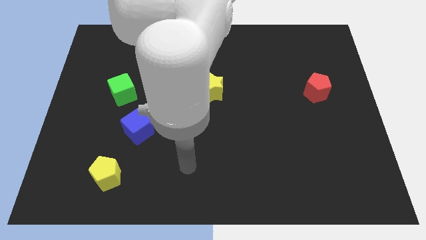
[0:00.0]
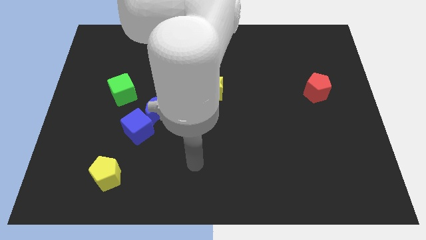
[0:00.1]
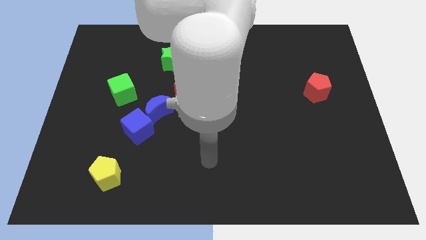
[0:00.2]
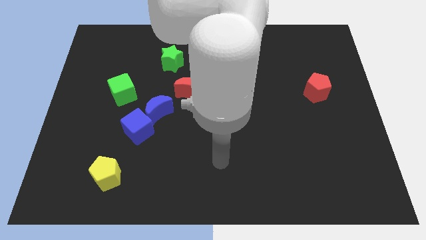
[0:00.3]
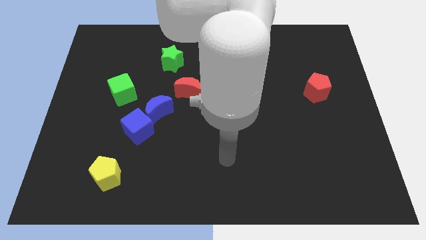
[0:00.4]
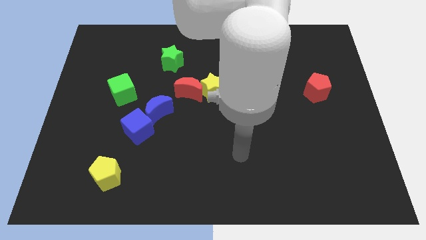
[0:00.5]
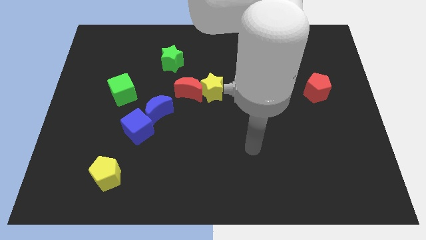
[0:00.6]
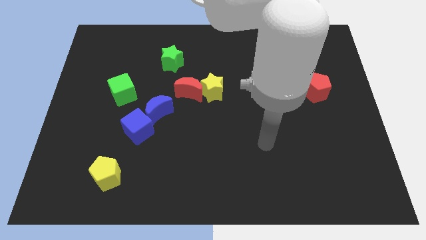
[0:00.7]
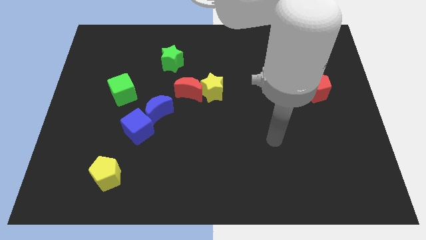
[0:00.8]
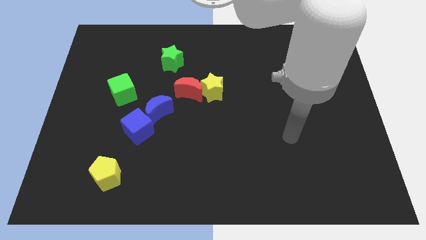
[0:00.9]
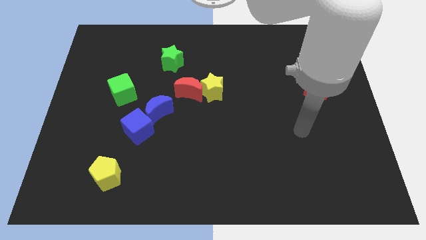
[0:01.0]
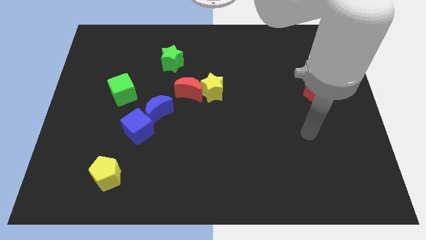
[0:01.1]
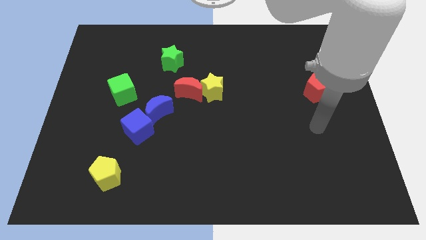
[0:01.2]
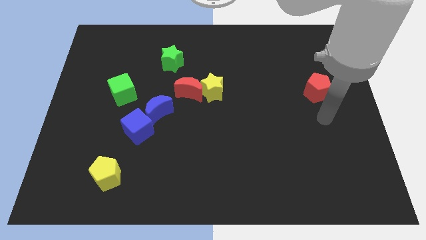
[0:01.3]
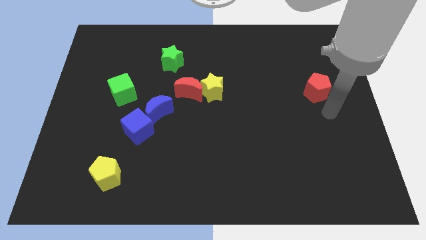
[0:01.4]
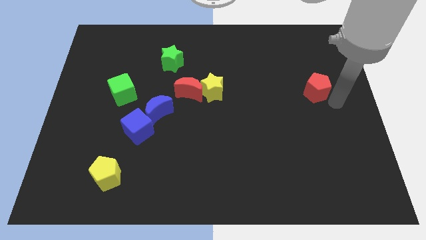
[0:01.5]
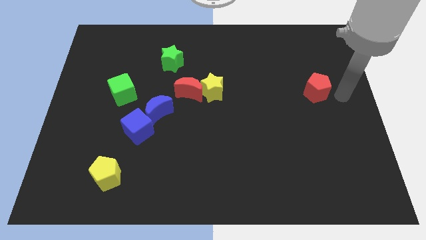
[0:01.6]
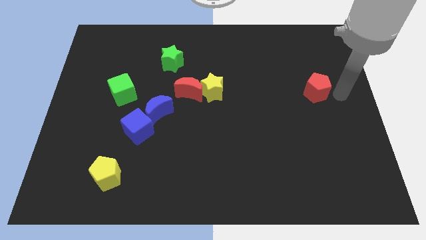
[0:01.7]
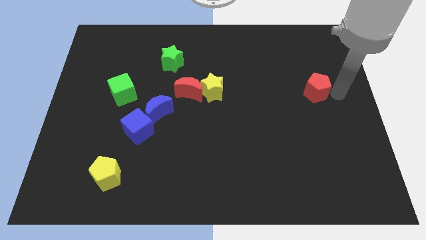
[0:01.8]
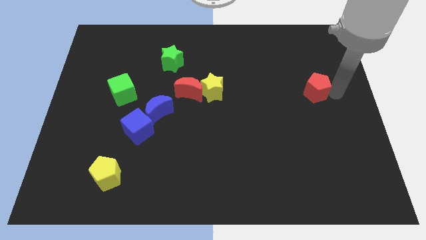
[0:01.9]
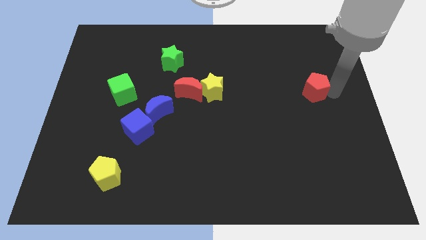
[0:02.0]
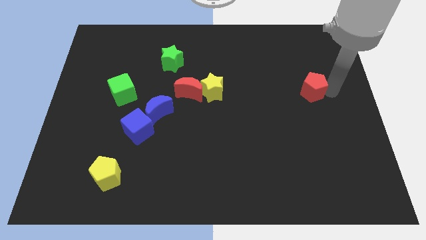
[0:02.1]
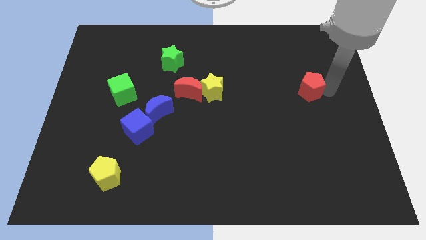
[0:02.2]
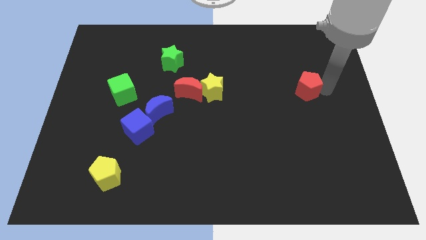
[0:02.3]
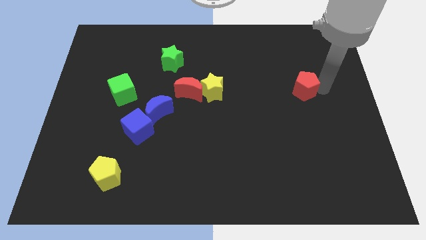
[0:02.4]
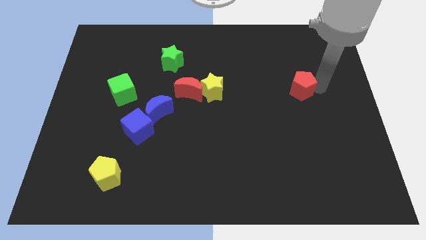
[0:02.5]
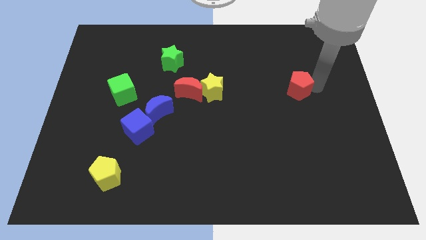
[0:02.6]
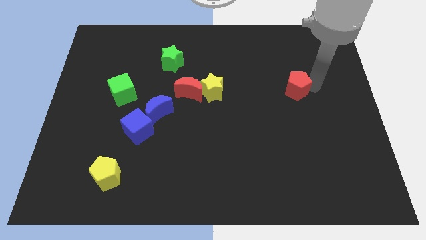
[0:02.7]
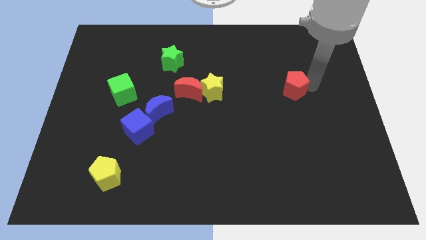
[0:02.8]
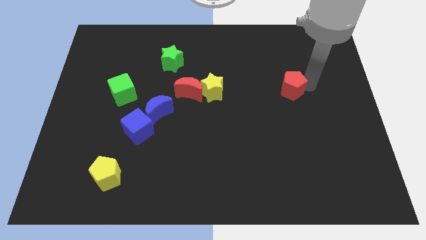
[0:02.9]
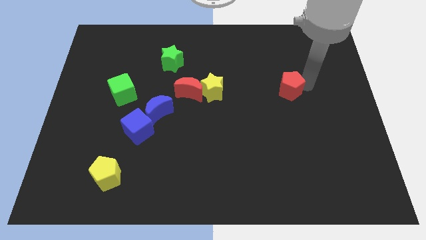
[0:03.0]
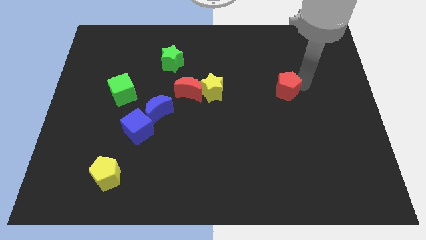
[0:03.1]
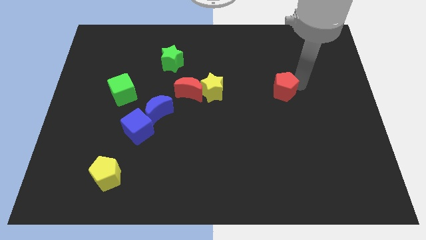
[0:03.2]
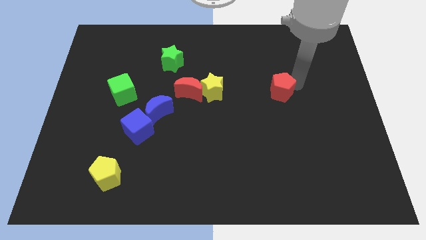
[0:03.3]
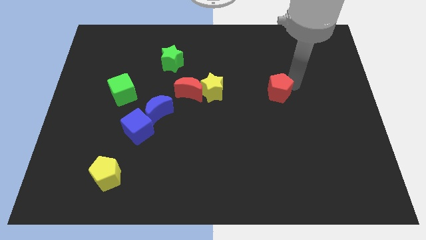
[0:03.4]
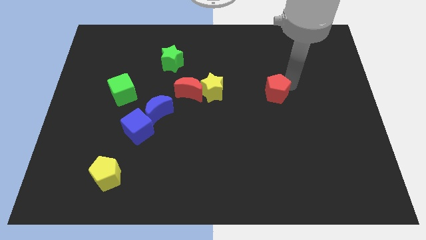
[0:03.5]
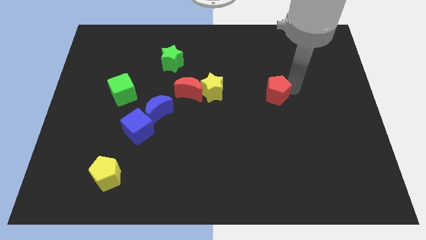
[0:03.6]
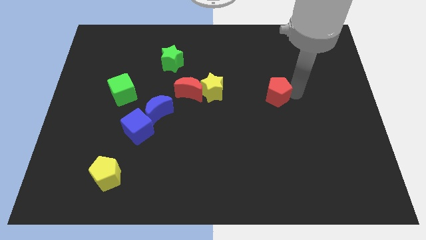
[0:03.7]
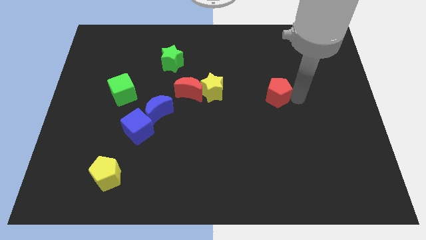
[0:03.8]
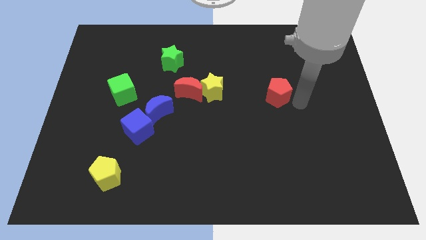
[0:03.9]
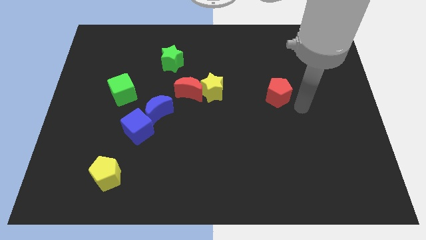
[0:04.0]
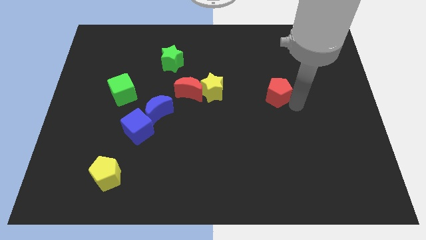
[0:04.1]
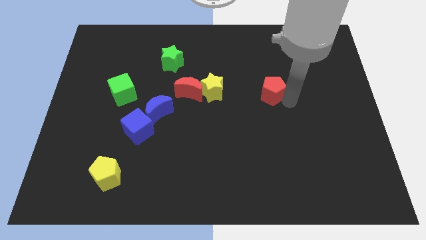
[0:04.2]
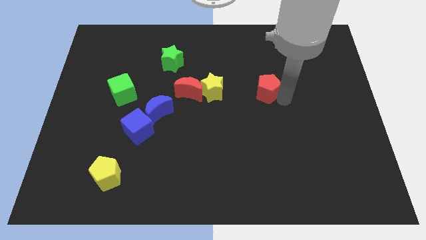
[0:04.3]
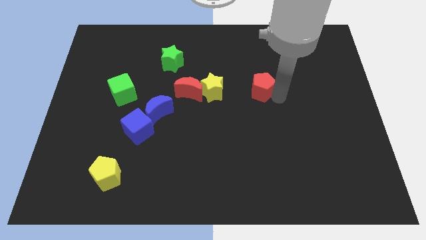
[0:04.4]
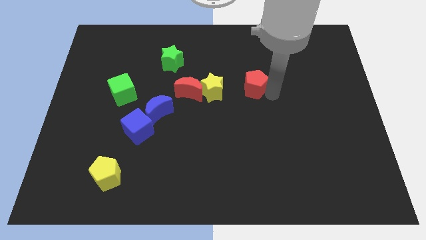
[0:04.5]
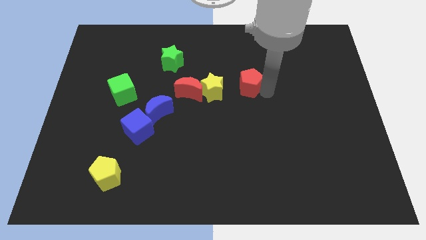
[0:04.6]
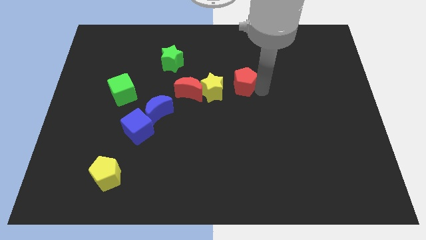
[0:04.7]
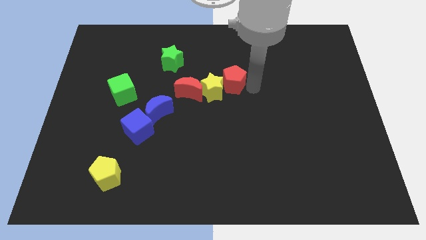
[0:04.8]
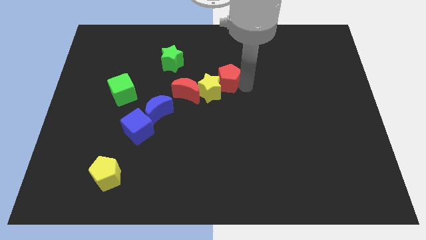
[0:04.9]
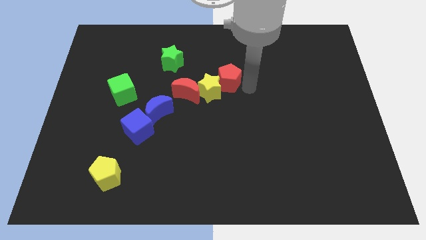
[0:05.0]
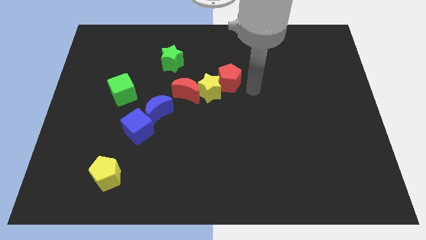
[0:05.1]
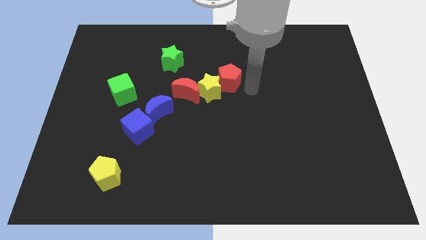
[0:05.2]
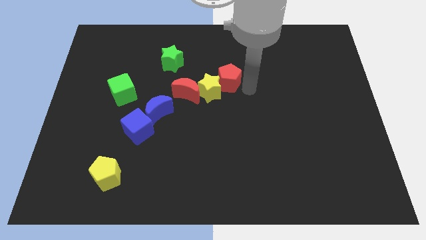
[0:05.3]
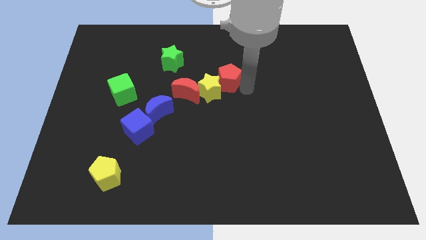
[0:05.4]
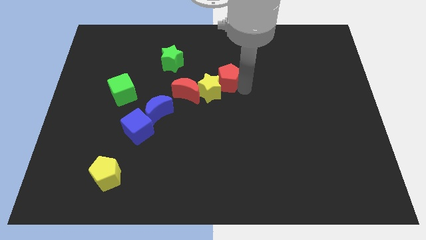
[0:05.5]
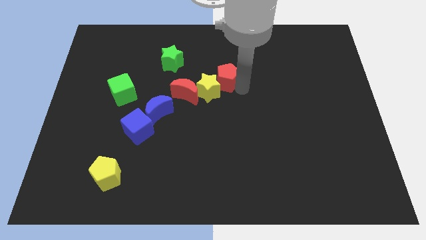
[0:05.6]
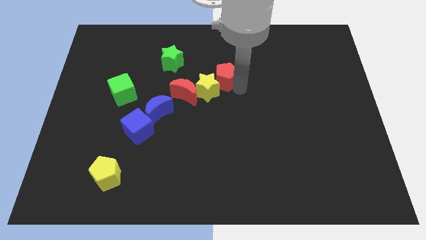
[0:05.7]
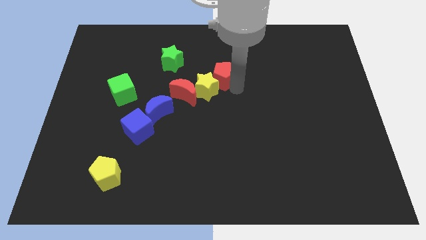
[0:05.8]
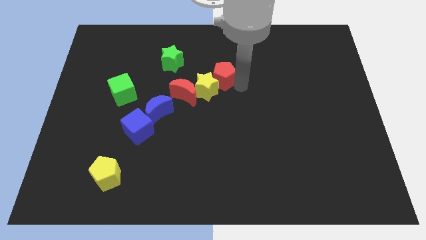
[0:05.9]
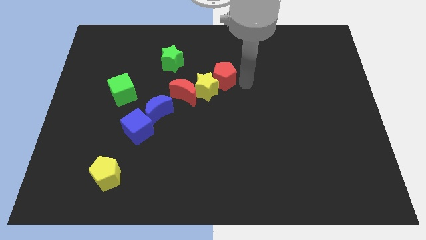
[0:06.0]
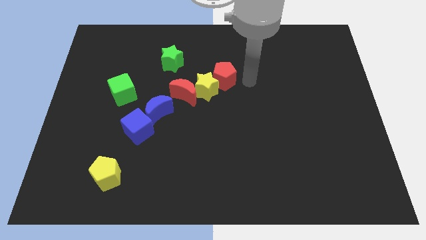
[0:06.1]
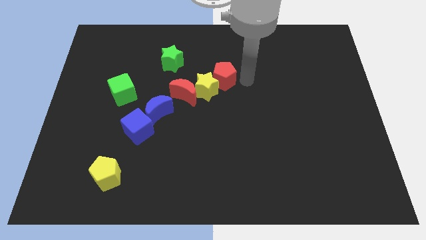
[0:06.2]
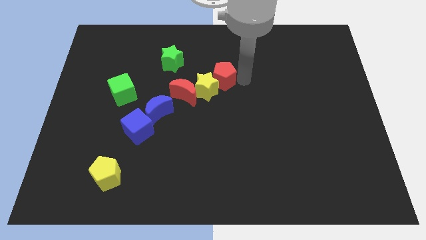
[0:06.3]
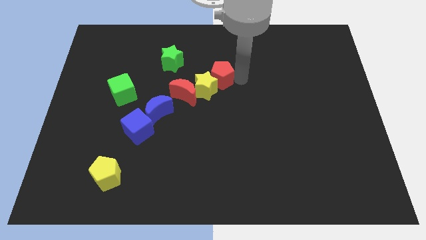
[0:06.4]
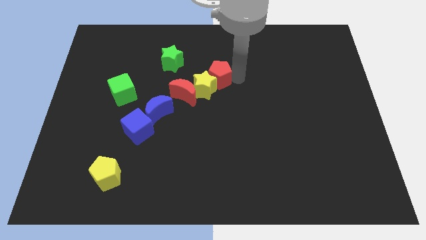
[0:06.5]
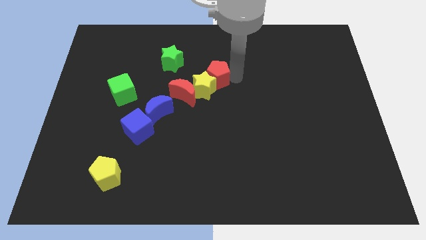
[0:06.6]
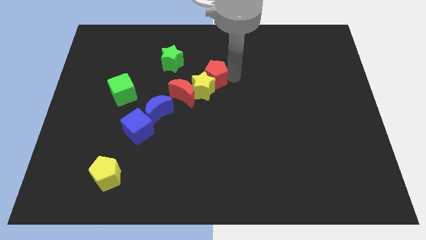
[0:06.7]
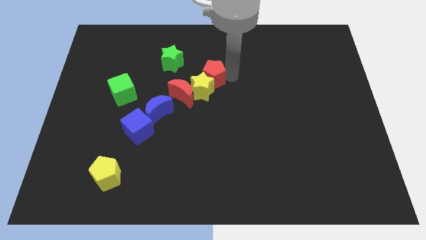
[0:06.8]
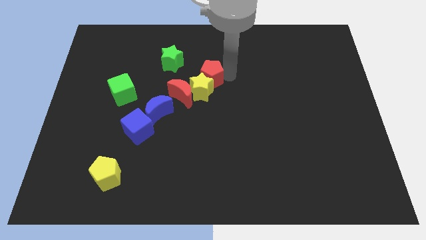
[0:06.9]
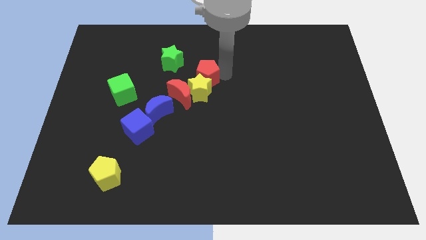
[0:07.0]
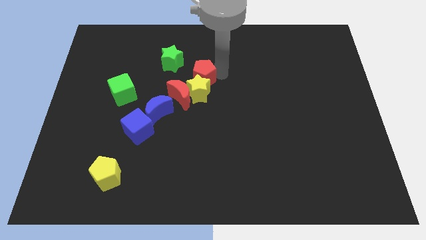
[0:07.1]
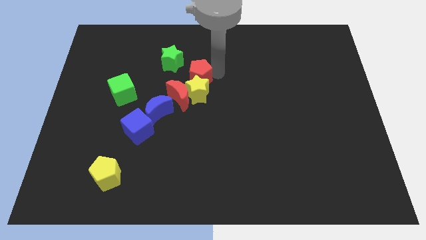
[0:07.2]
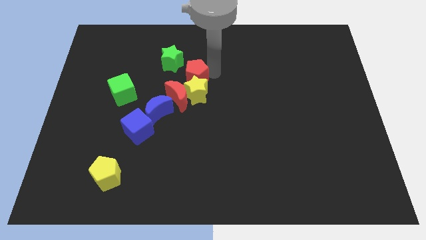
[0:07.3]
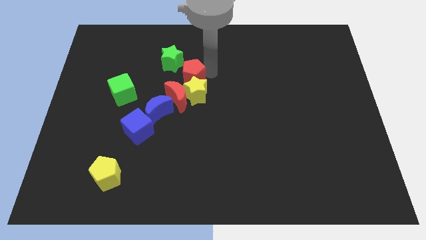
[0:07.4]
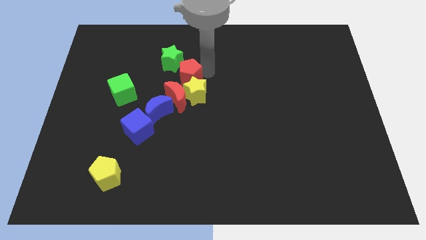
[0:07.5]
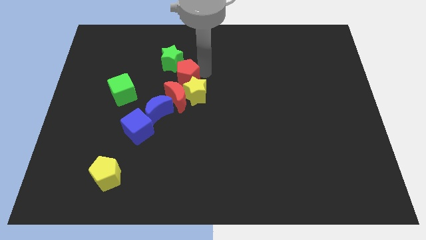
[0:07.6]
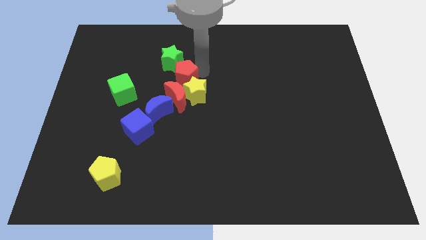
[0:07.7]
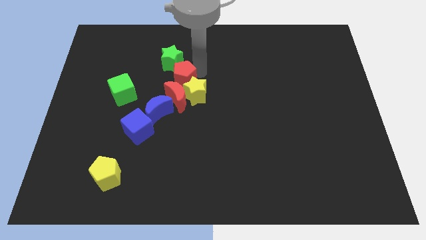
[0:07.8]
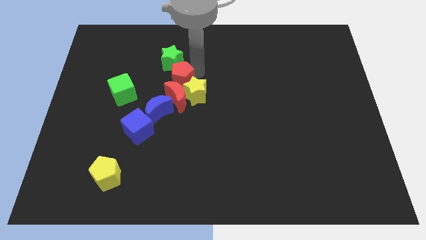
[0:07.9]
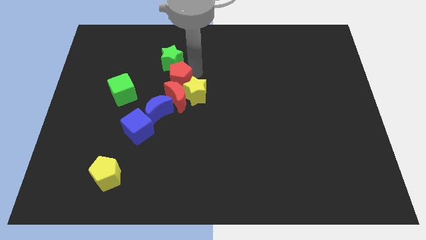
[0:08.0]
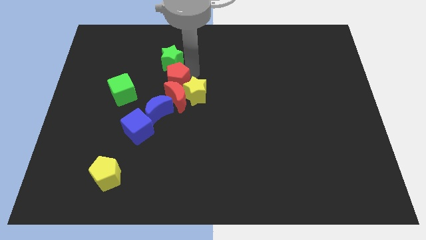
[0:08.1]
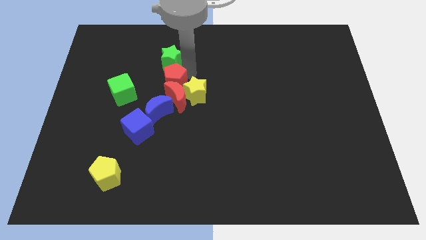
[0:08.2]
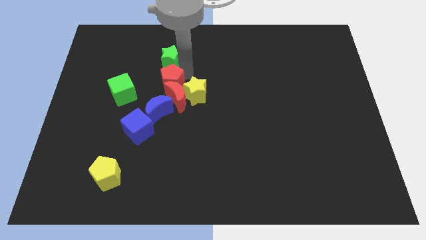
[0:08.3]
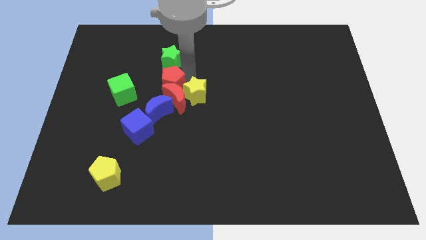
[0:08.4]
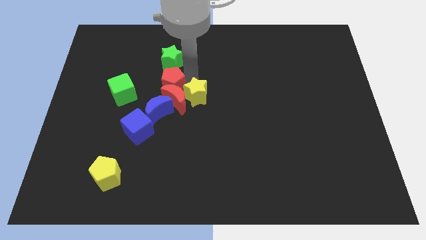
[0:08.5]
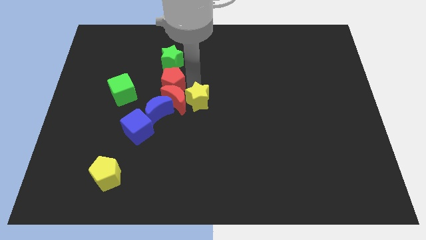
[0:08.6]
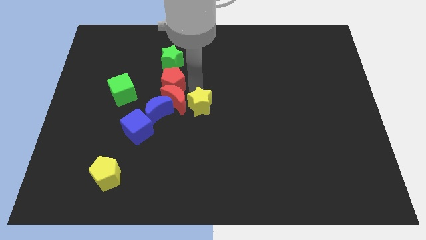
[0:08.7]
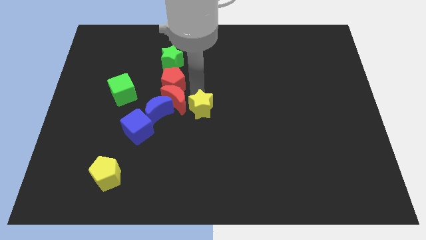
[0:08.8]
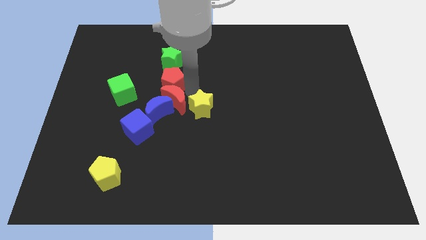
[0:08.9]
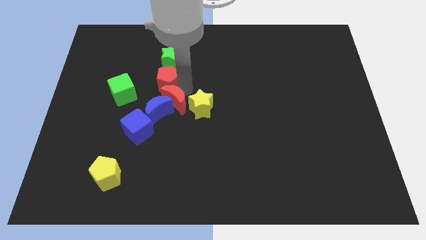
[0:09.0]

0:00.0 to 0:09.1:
slide the red pentagon diagonally down and to the left of the green star
